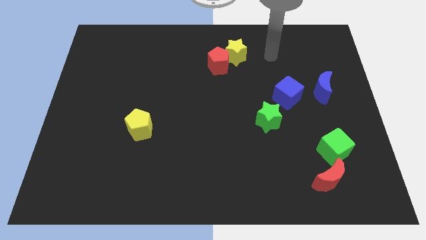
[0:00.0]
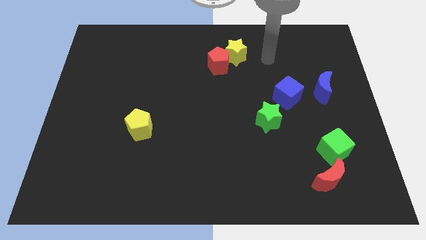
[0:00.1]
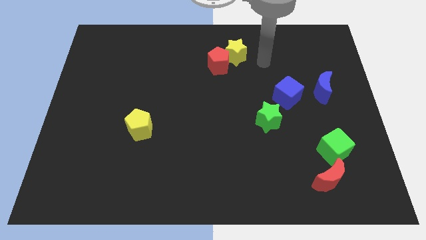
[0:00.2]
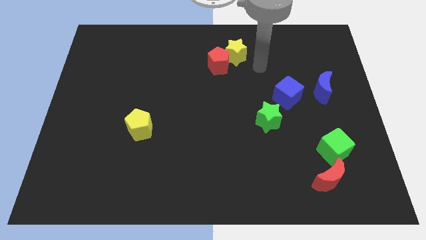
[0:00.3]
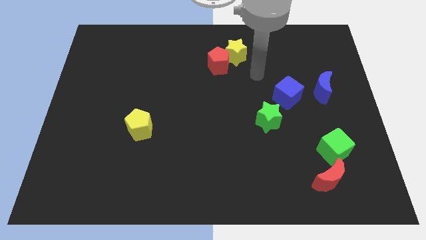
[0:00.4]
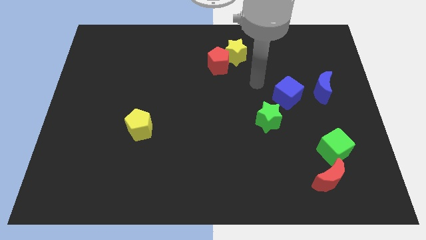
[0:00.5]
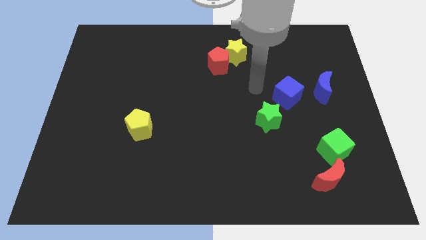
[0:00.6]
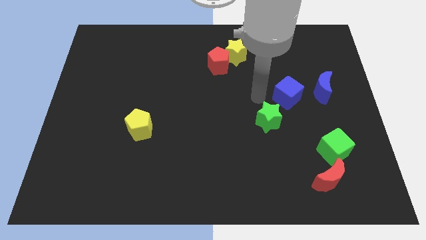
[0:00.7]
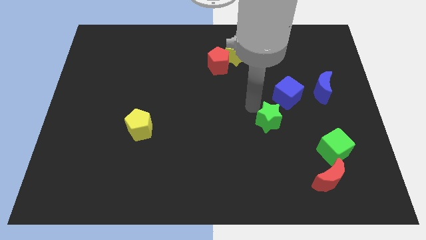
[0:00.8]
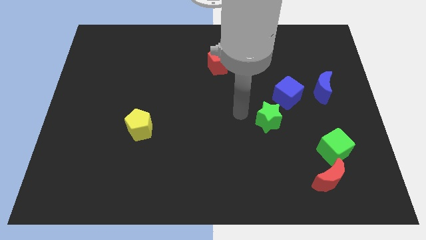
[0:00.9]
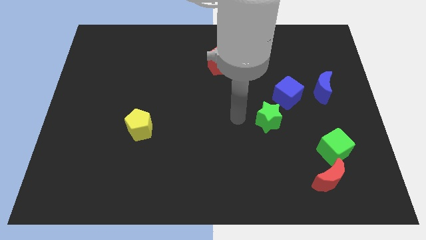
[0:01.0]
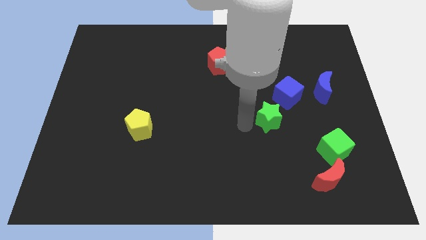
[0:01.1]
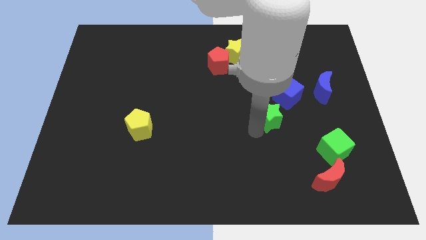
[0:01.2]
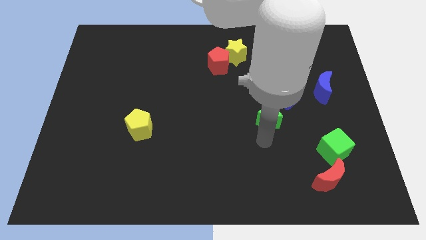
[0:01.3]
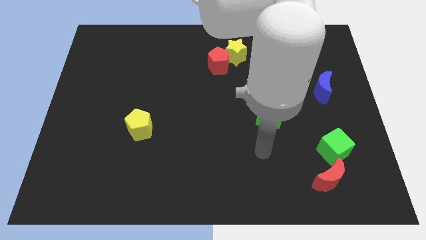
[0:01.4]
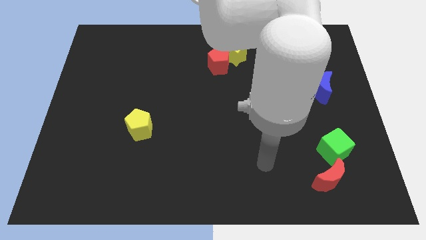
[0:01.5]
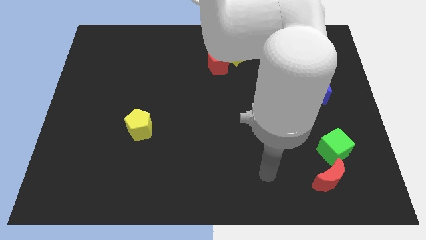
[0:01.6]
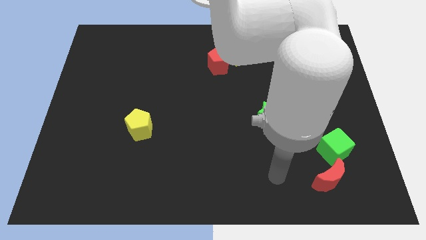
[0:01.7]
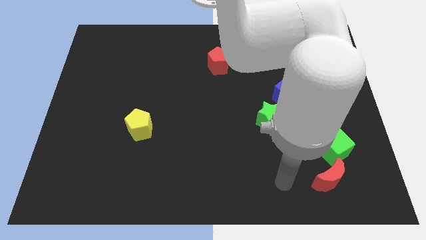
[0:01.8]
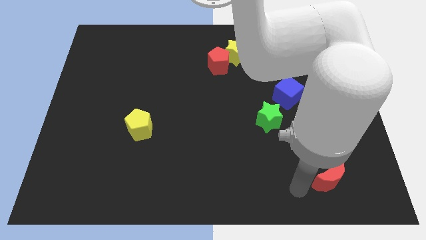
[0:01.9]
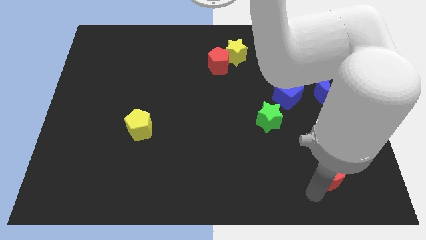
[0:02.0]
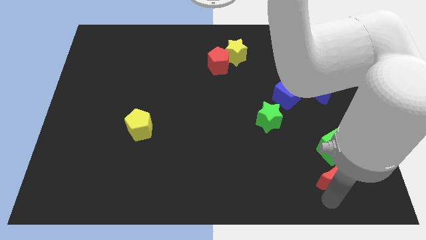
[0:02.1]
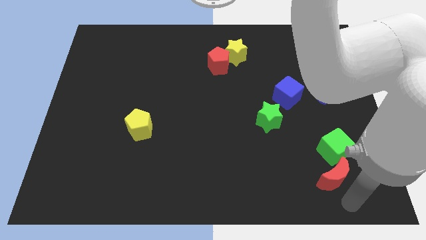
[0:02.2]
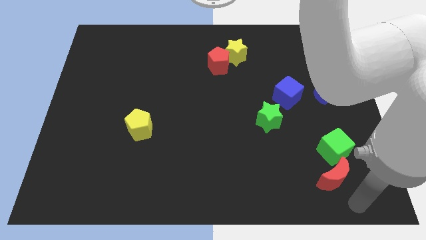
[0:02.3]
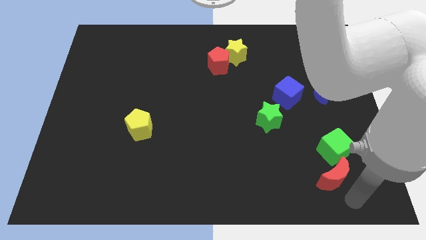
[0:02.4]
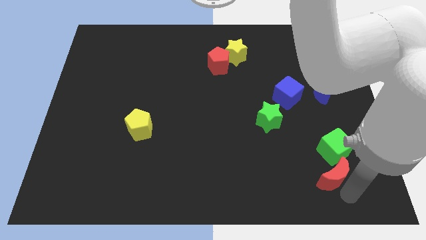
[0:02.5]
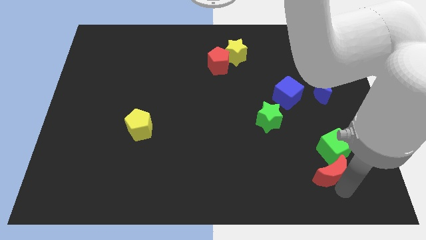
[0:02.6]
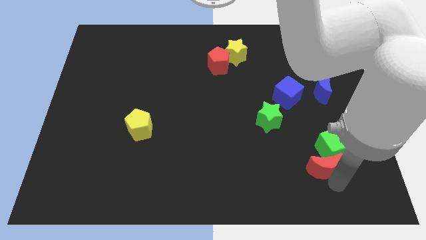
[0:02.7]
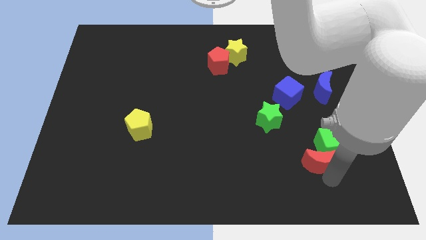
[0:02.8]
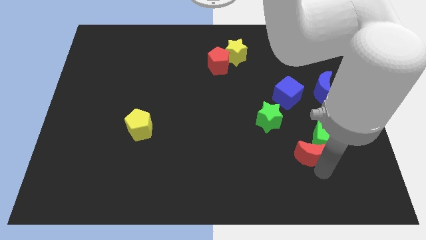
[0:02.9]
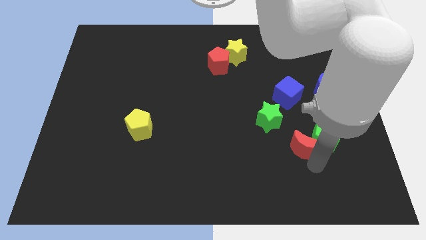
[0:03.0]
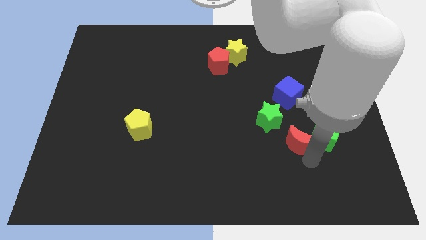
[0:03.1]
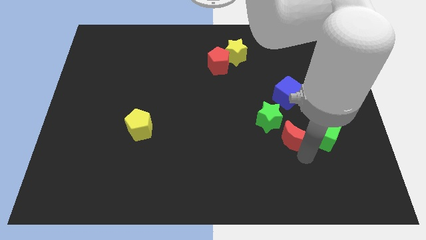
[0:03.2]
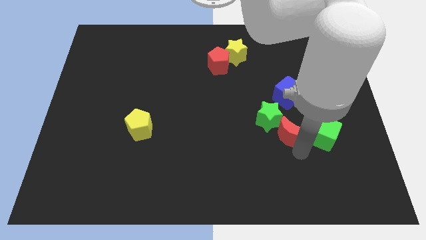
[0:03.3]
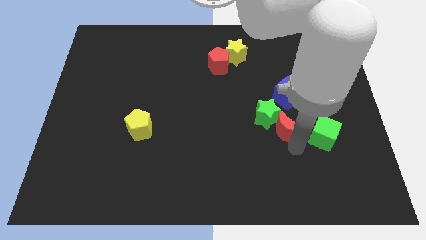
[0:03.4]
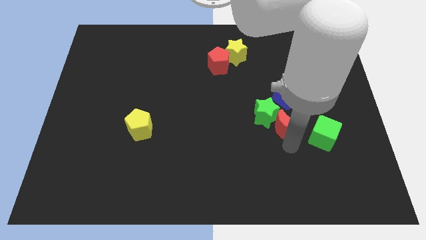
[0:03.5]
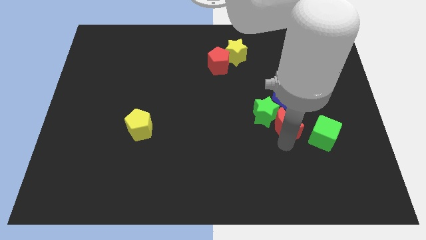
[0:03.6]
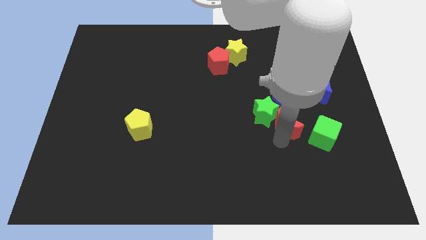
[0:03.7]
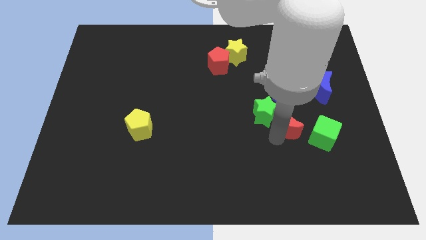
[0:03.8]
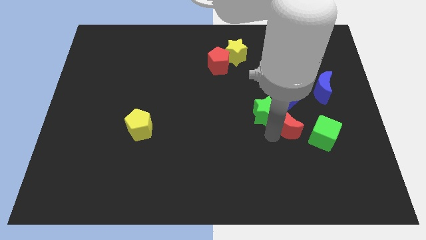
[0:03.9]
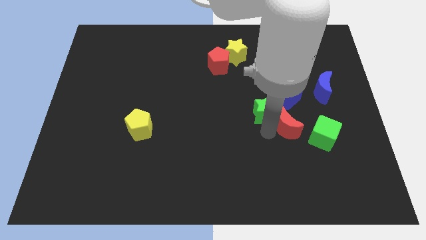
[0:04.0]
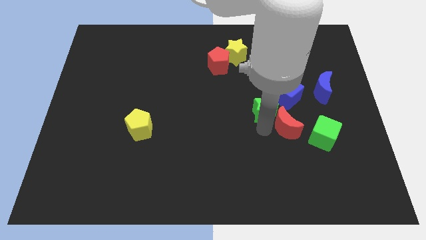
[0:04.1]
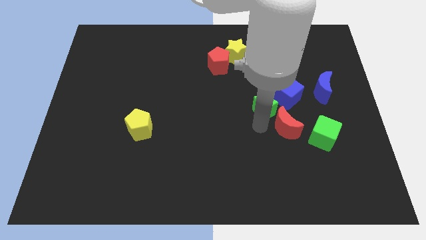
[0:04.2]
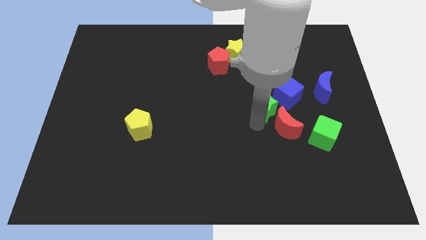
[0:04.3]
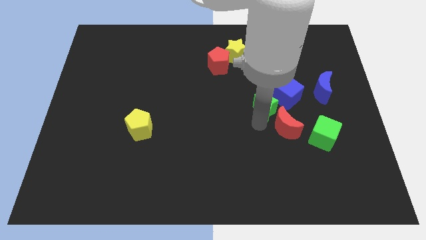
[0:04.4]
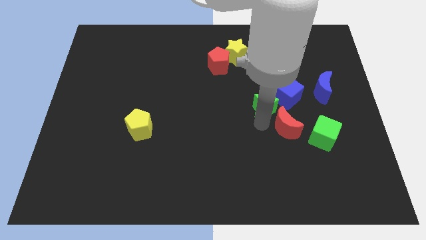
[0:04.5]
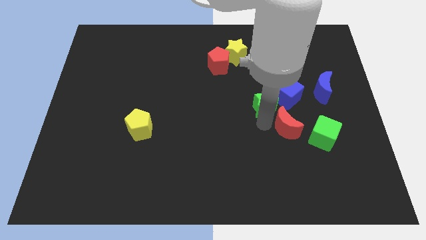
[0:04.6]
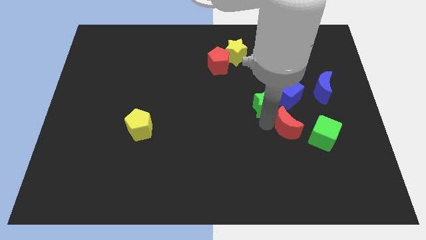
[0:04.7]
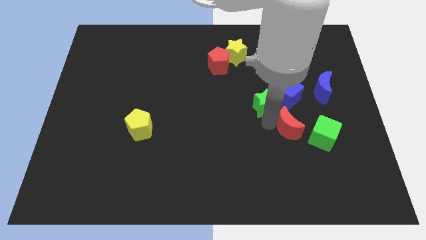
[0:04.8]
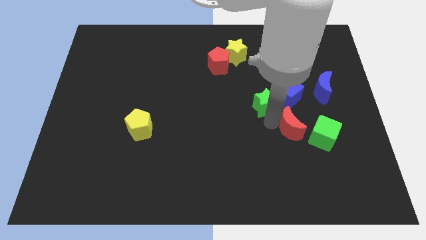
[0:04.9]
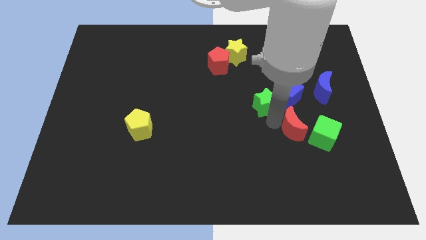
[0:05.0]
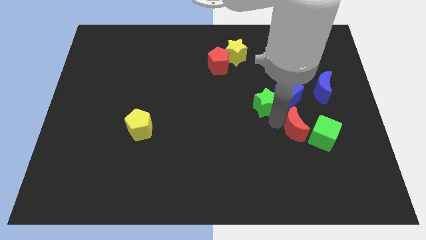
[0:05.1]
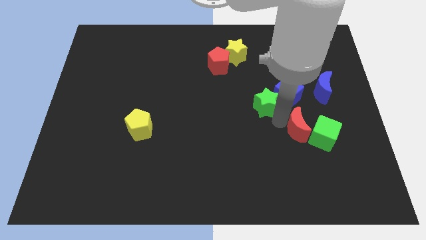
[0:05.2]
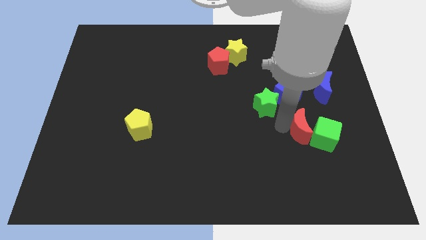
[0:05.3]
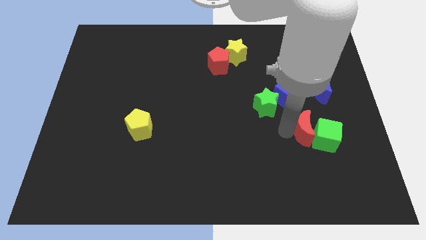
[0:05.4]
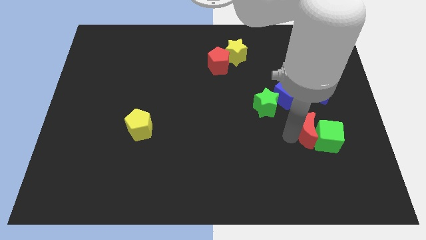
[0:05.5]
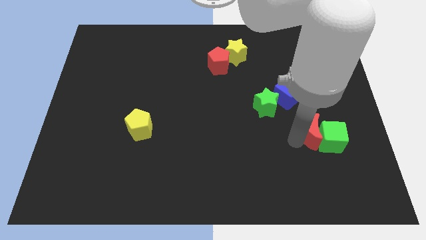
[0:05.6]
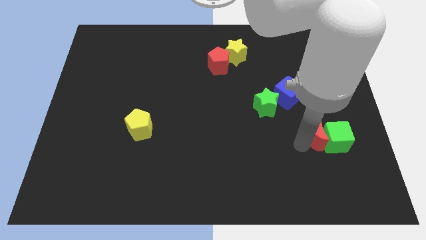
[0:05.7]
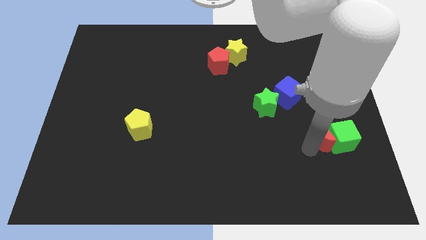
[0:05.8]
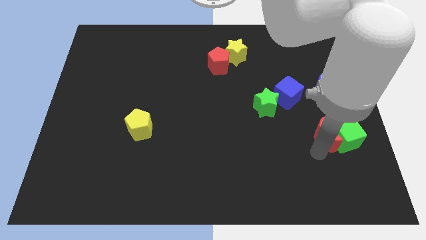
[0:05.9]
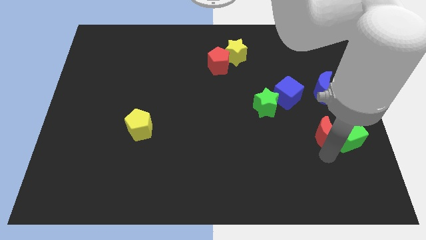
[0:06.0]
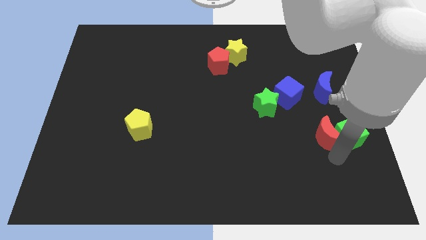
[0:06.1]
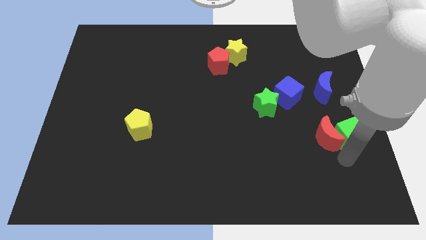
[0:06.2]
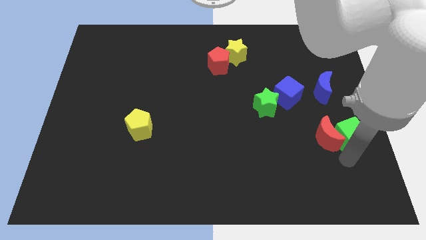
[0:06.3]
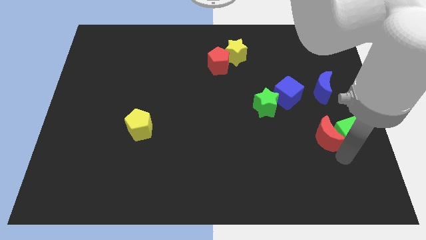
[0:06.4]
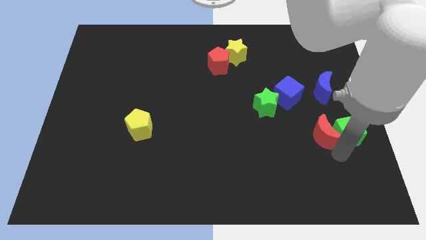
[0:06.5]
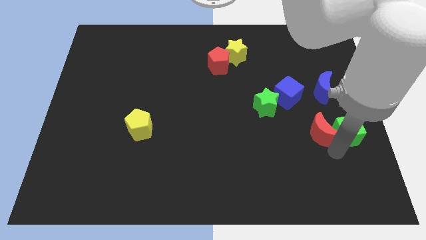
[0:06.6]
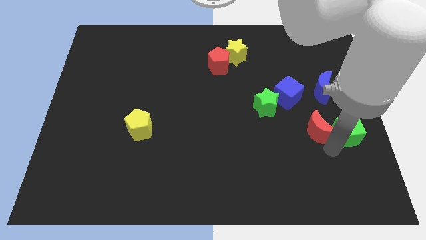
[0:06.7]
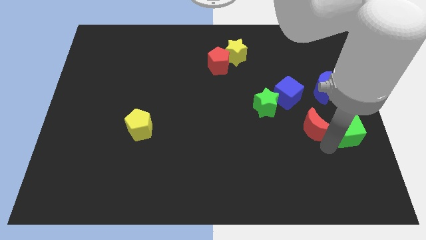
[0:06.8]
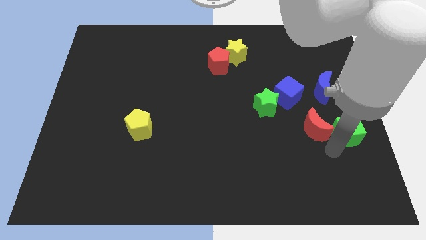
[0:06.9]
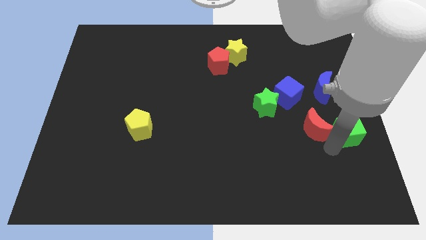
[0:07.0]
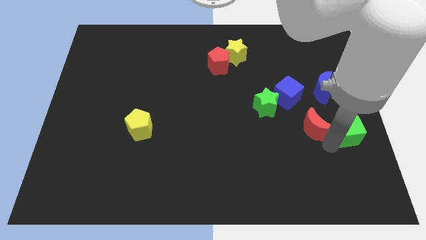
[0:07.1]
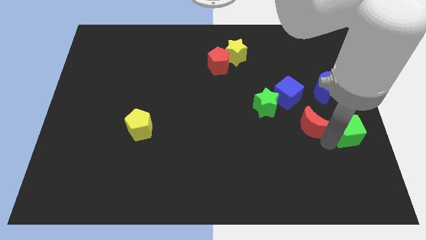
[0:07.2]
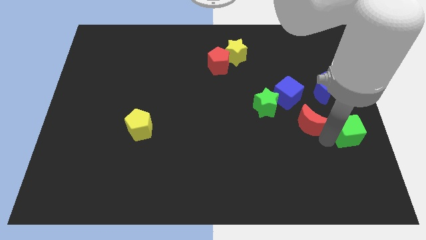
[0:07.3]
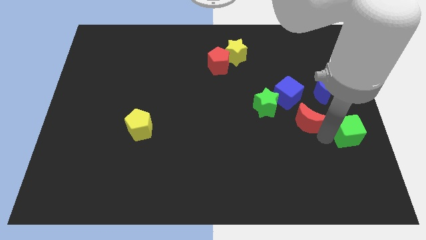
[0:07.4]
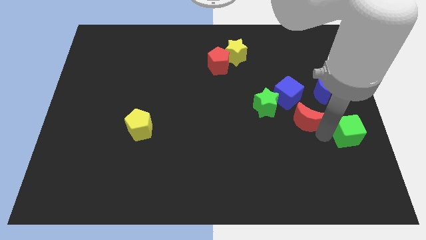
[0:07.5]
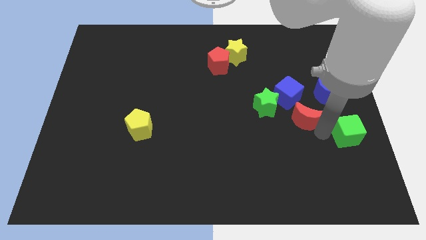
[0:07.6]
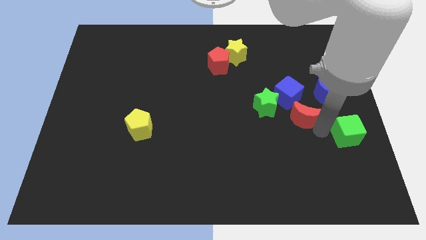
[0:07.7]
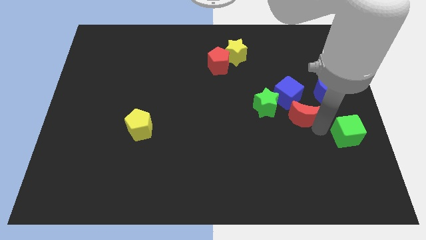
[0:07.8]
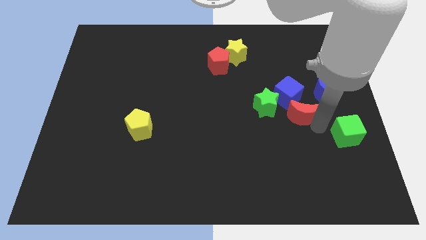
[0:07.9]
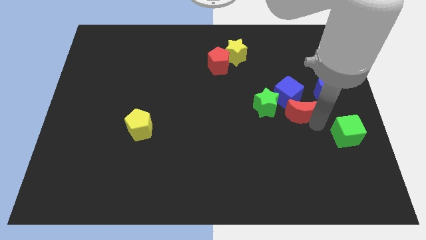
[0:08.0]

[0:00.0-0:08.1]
move the red moon to the blue cube

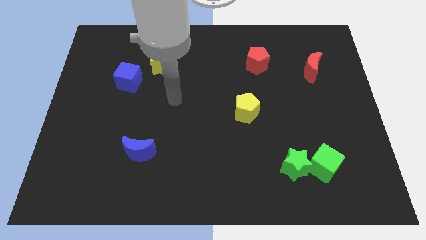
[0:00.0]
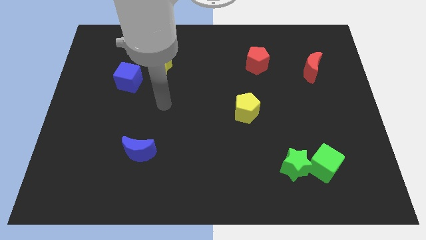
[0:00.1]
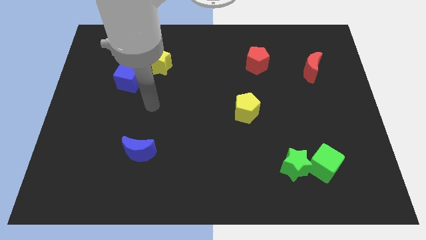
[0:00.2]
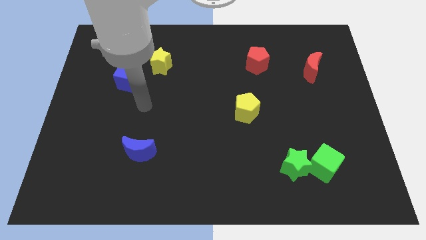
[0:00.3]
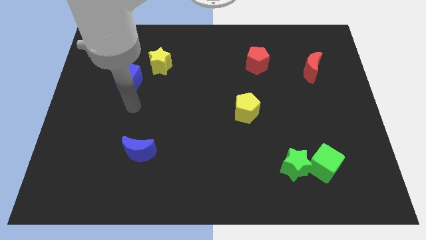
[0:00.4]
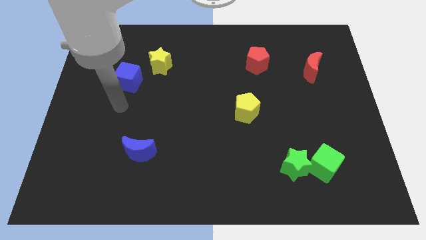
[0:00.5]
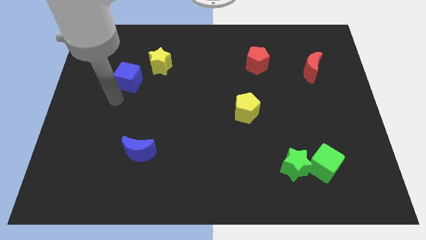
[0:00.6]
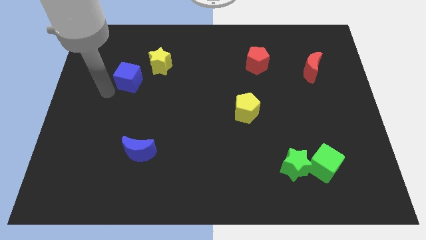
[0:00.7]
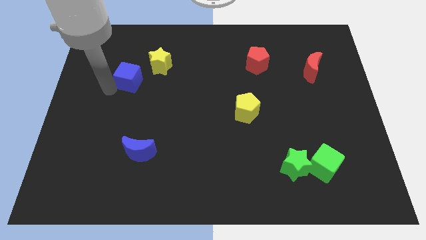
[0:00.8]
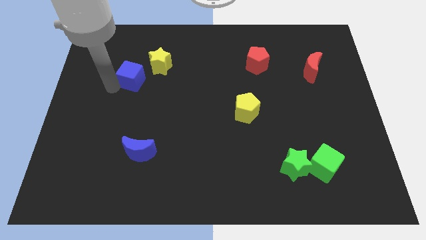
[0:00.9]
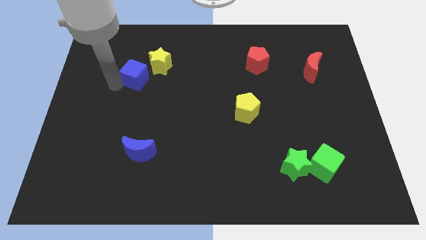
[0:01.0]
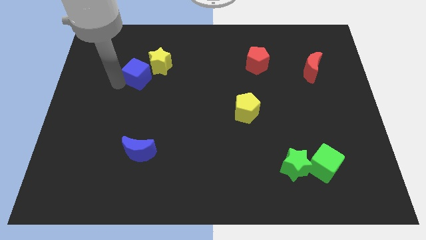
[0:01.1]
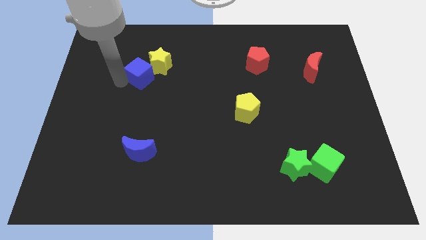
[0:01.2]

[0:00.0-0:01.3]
put the blue cube close to the yellow star
